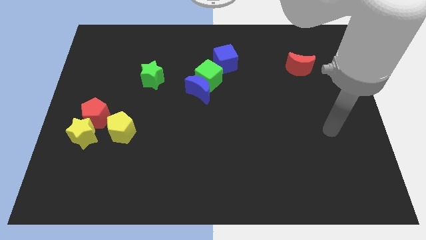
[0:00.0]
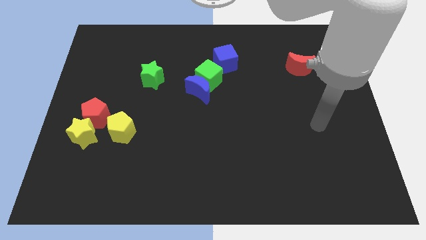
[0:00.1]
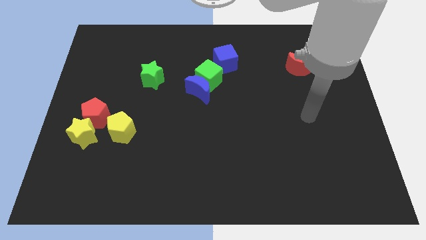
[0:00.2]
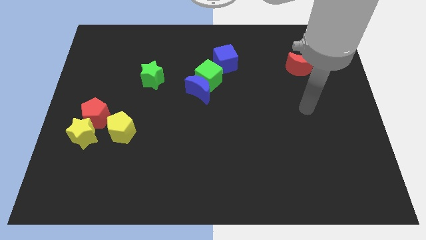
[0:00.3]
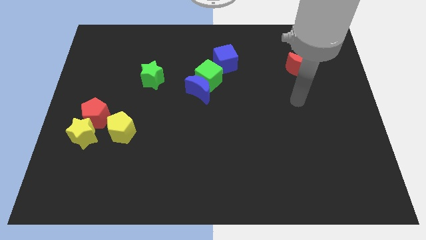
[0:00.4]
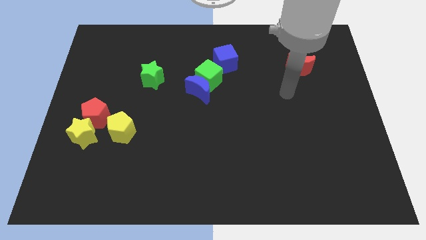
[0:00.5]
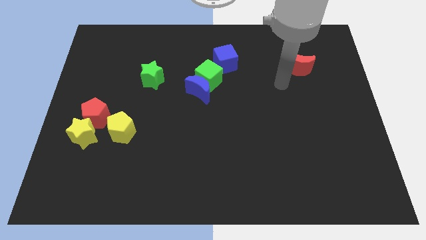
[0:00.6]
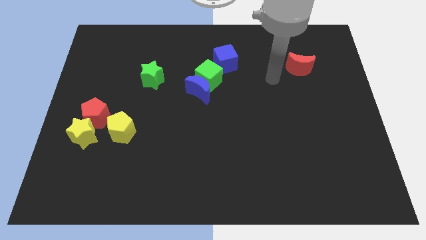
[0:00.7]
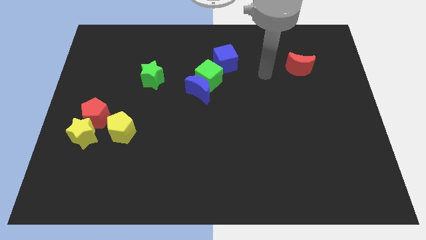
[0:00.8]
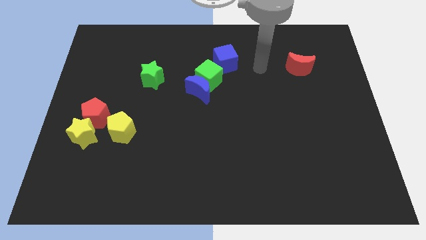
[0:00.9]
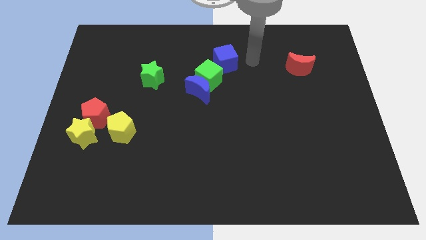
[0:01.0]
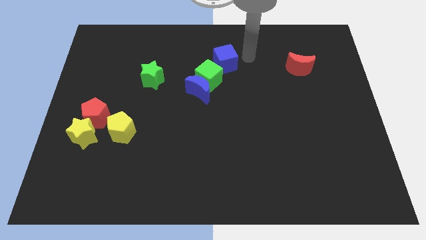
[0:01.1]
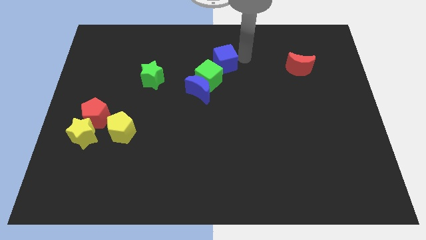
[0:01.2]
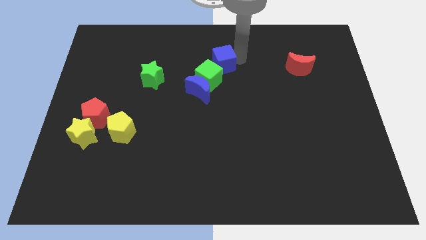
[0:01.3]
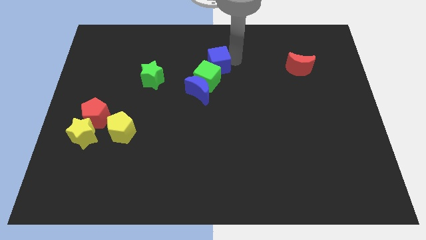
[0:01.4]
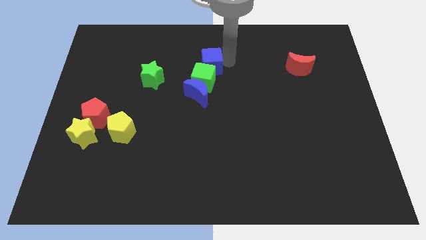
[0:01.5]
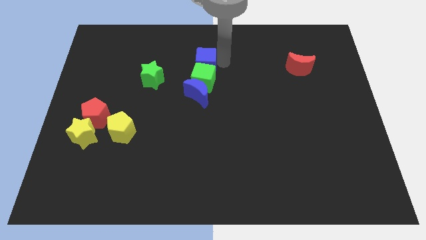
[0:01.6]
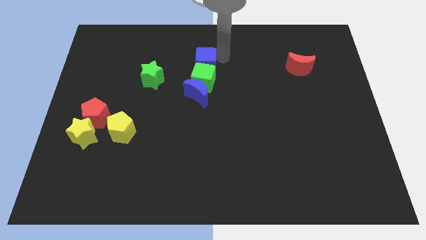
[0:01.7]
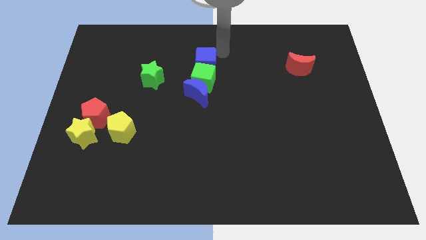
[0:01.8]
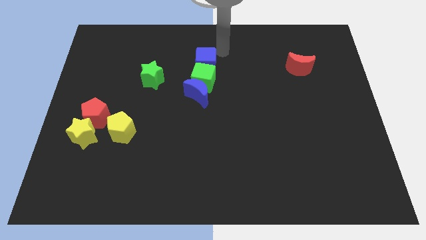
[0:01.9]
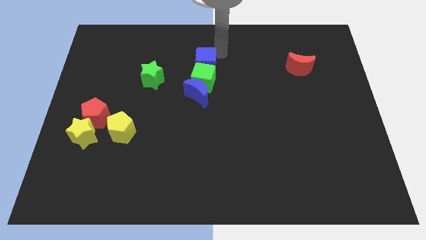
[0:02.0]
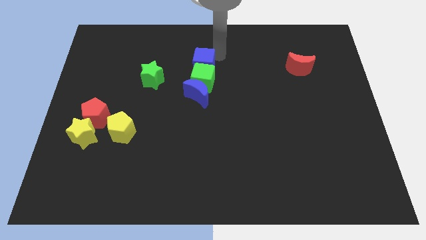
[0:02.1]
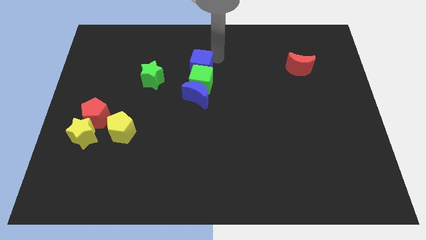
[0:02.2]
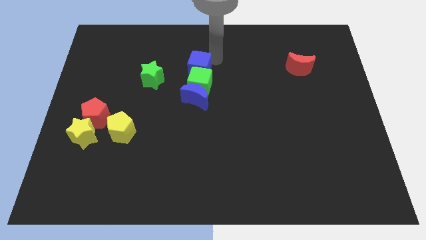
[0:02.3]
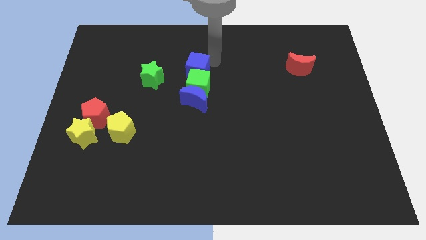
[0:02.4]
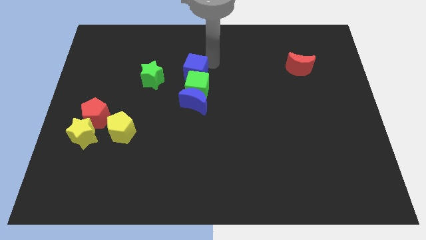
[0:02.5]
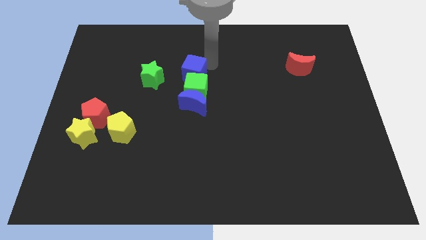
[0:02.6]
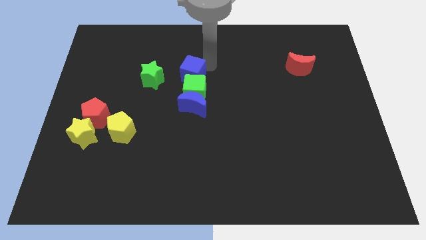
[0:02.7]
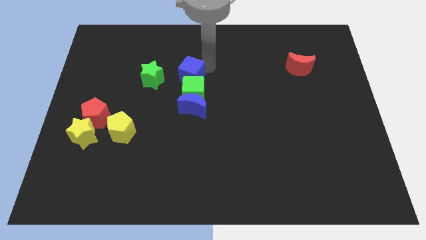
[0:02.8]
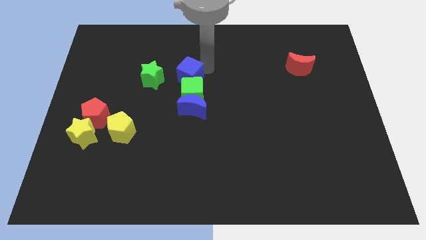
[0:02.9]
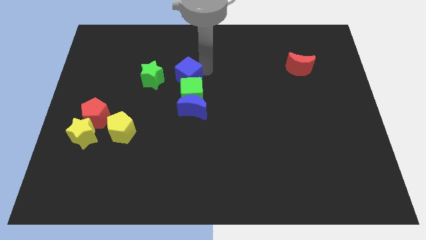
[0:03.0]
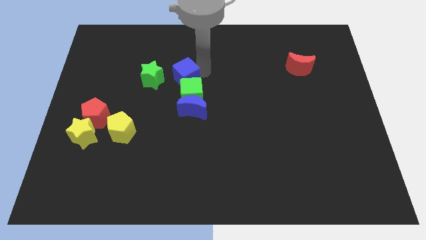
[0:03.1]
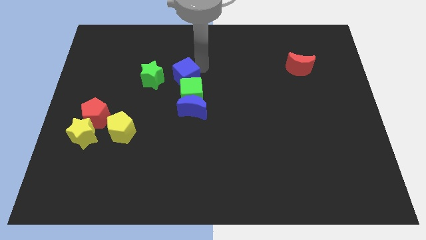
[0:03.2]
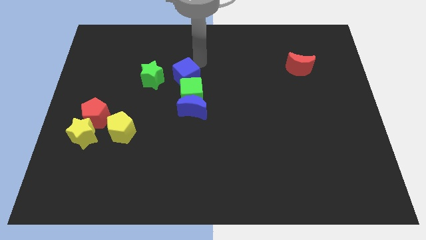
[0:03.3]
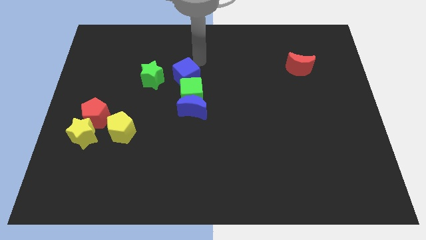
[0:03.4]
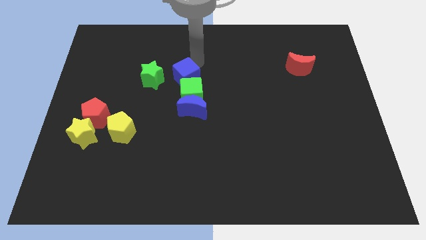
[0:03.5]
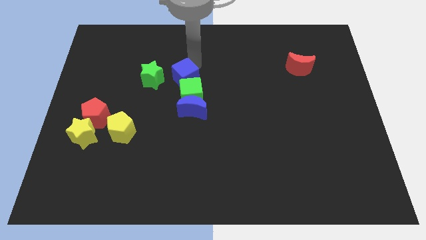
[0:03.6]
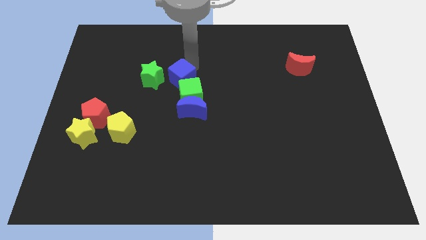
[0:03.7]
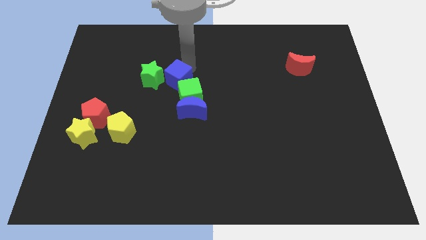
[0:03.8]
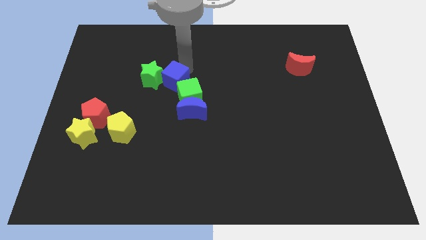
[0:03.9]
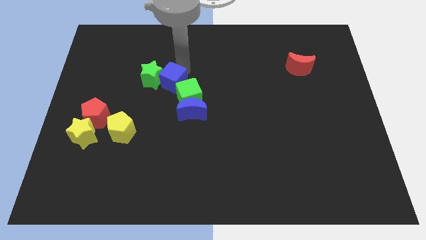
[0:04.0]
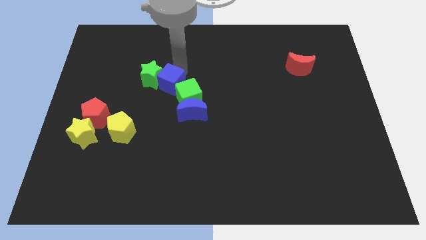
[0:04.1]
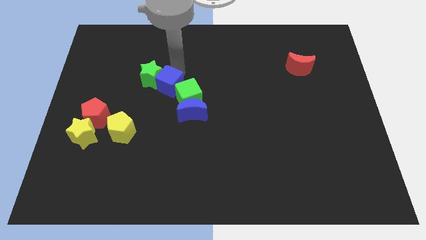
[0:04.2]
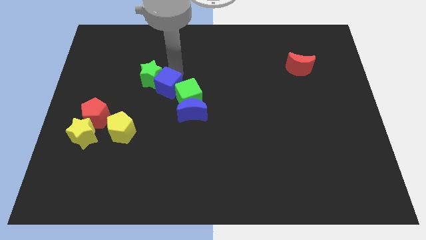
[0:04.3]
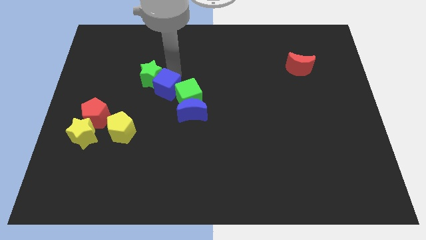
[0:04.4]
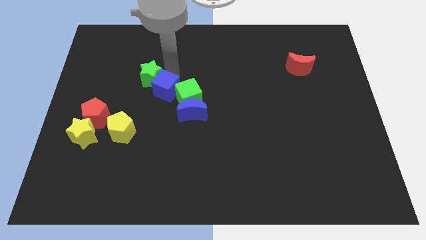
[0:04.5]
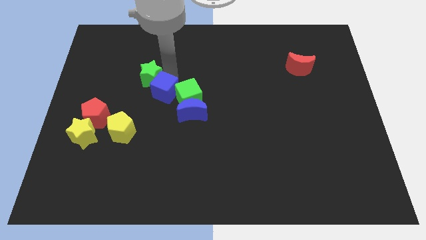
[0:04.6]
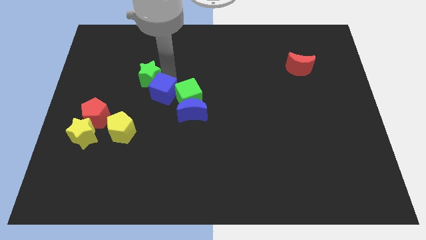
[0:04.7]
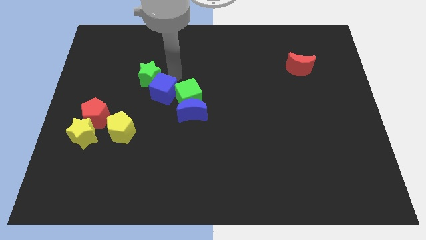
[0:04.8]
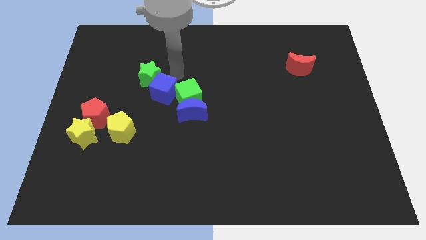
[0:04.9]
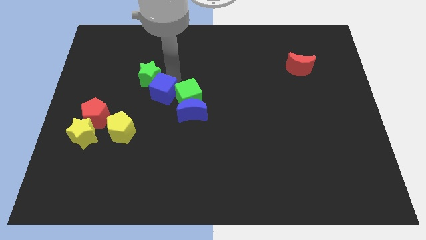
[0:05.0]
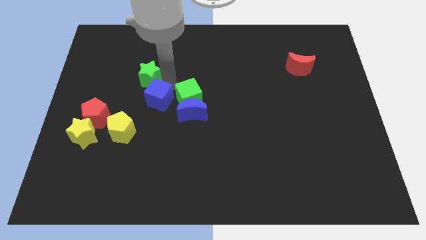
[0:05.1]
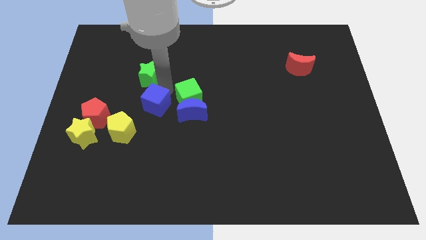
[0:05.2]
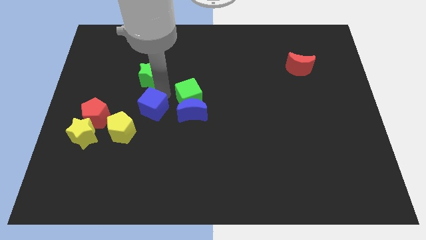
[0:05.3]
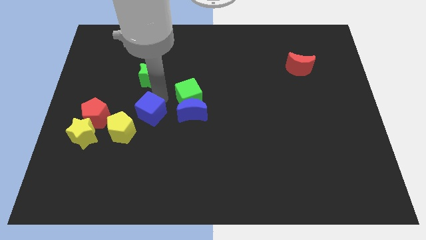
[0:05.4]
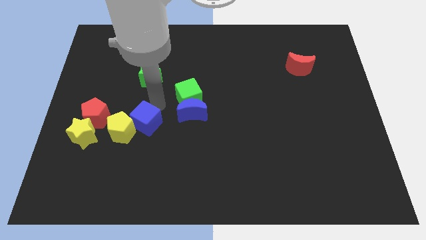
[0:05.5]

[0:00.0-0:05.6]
move the blue cube next to the yellow pentagon

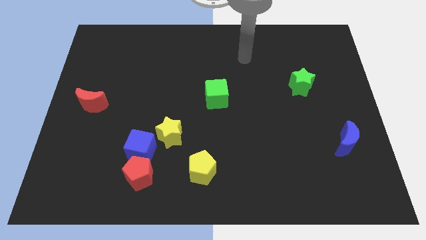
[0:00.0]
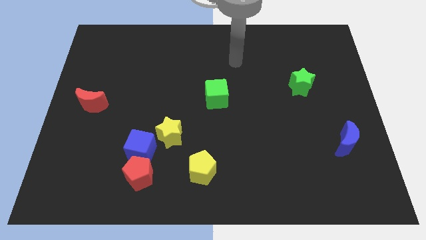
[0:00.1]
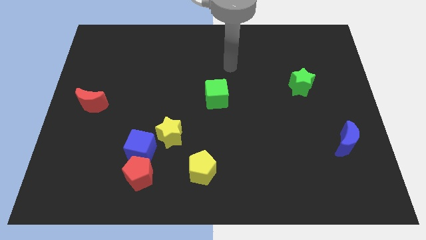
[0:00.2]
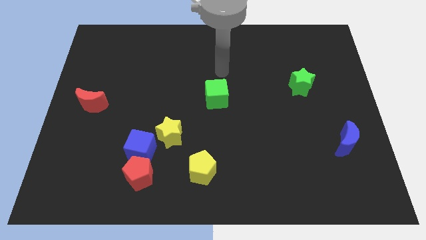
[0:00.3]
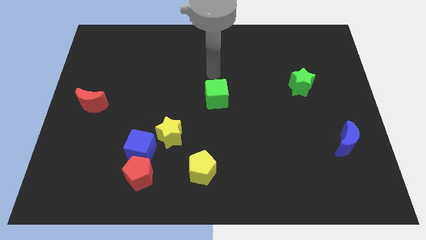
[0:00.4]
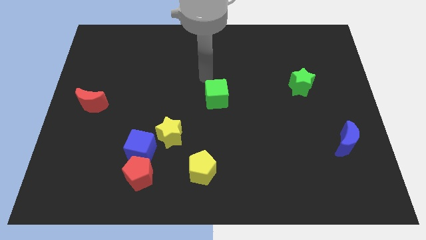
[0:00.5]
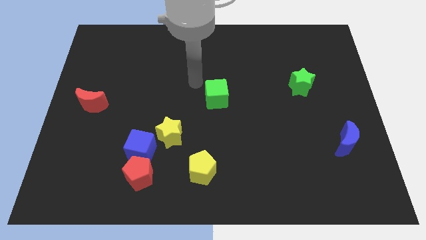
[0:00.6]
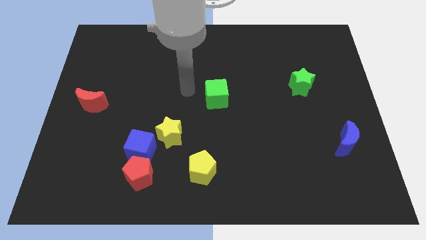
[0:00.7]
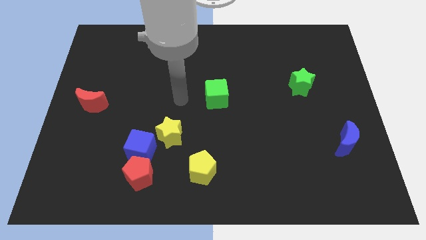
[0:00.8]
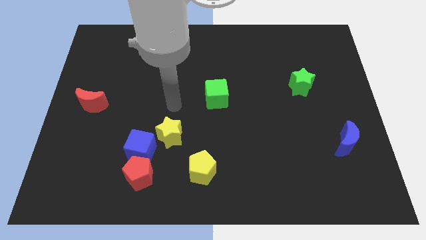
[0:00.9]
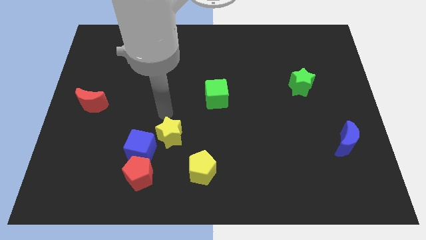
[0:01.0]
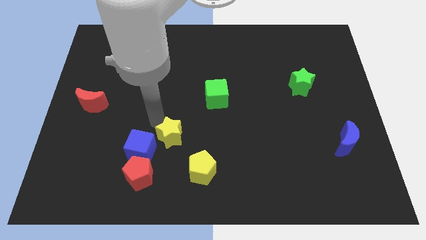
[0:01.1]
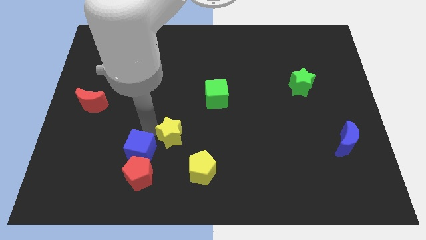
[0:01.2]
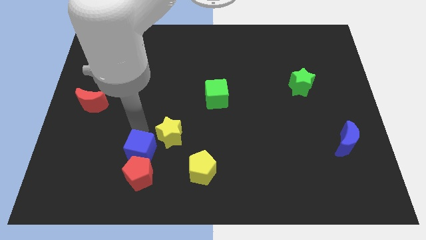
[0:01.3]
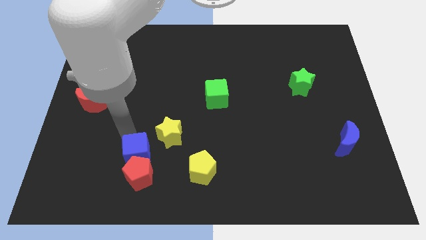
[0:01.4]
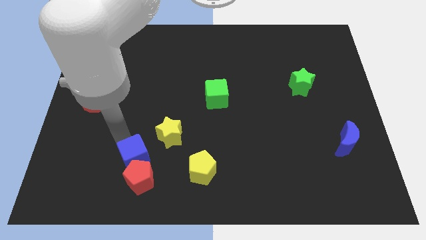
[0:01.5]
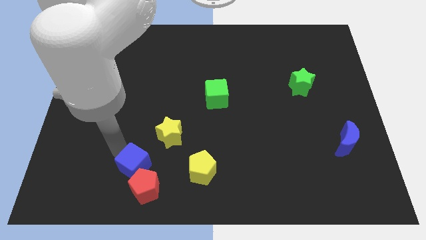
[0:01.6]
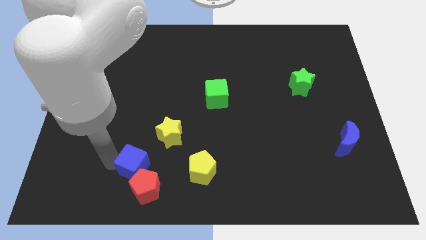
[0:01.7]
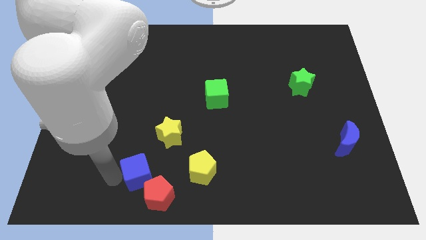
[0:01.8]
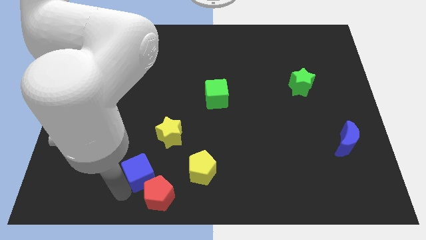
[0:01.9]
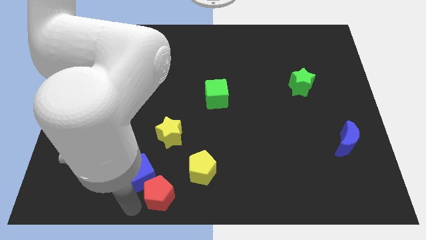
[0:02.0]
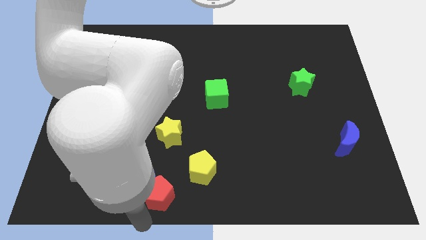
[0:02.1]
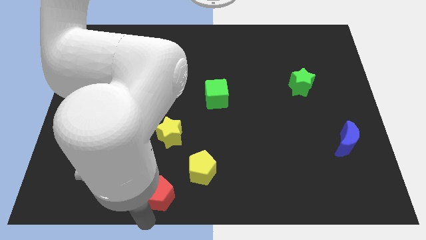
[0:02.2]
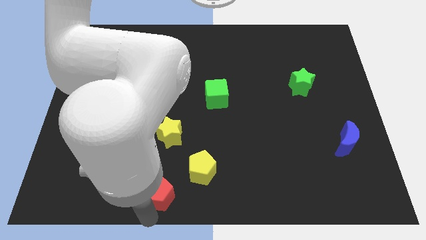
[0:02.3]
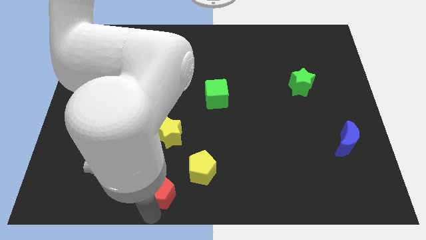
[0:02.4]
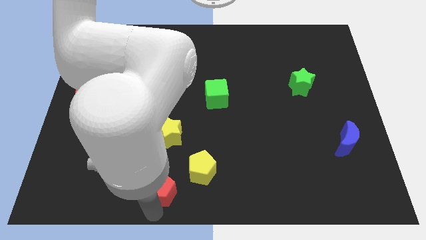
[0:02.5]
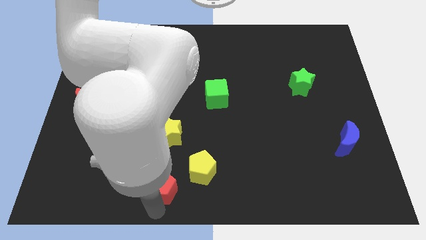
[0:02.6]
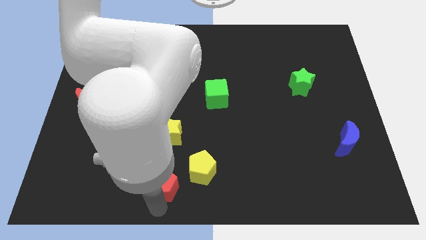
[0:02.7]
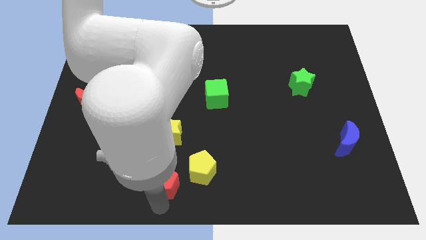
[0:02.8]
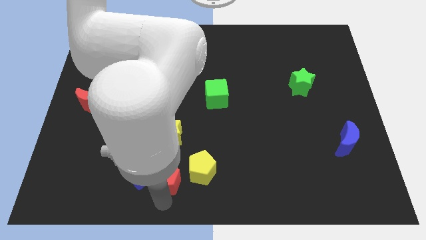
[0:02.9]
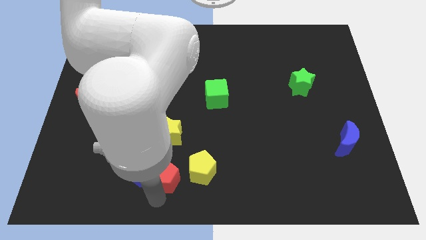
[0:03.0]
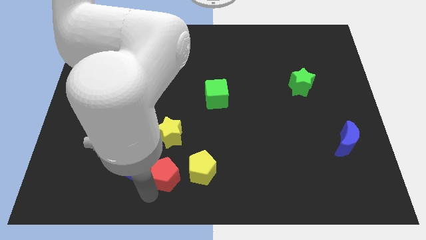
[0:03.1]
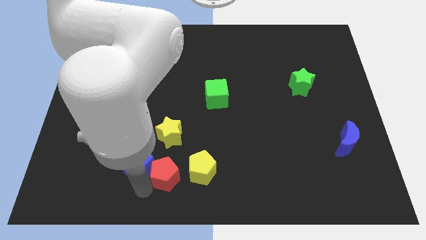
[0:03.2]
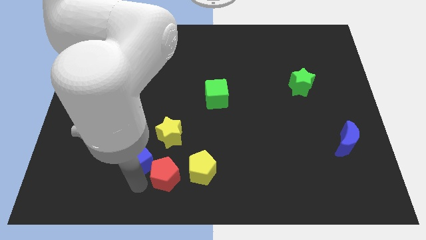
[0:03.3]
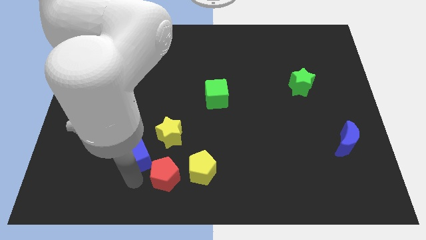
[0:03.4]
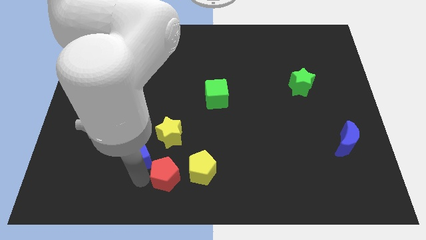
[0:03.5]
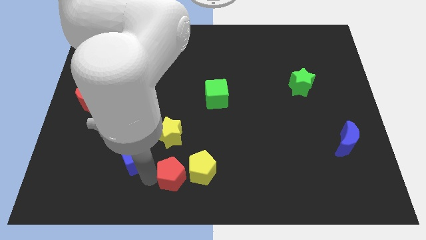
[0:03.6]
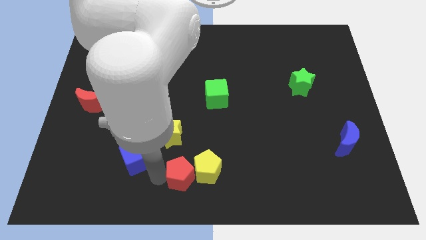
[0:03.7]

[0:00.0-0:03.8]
move the red pentagon to the yellow pentagon
